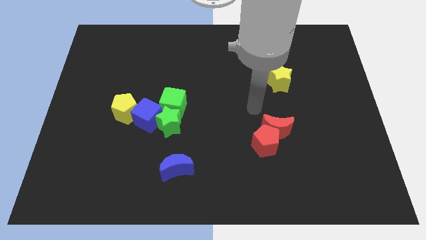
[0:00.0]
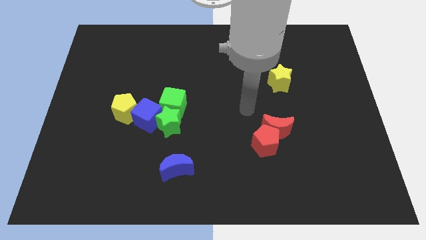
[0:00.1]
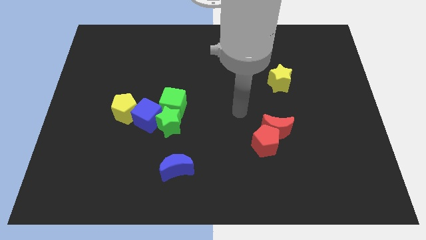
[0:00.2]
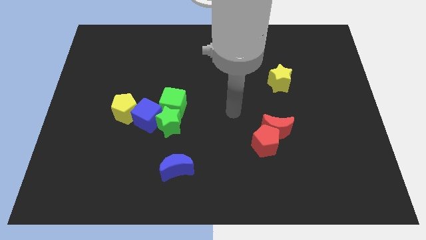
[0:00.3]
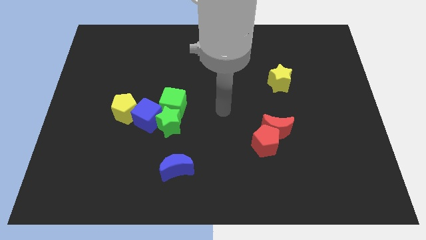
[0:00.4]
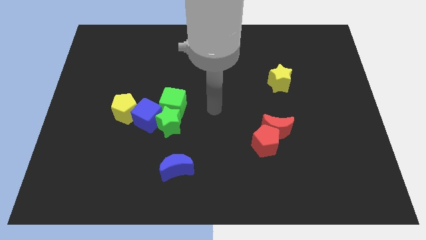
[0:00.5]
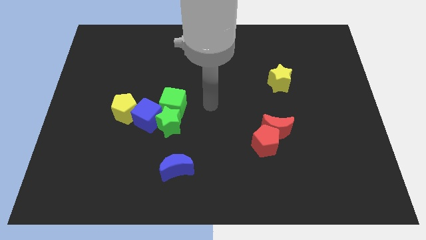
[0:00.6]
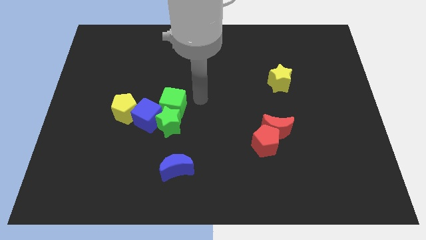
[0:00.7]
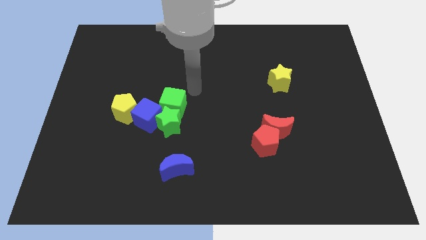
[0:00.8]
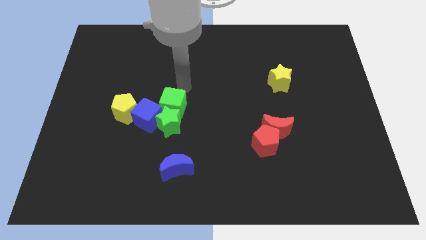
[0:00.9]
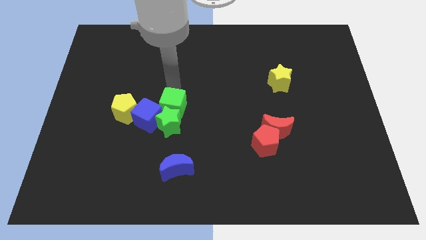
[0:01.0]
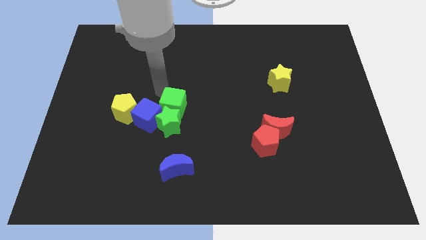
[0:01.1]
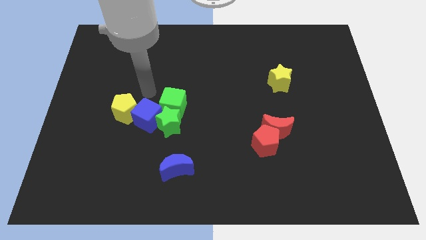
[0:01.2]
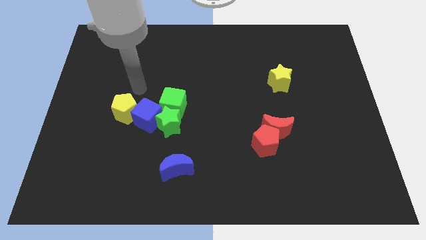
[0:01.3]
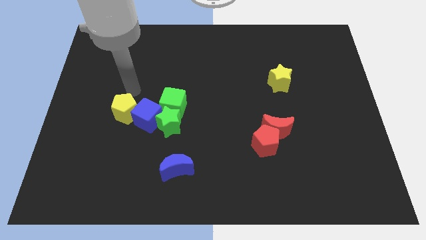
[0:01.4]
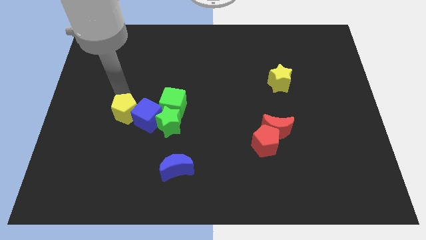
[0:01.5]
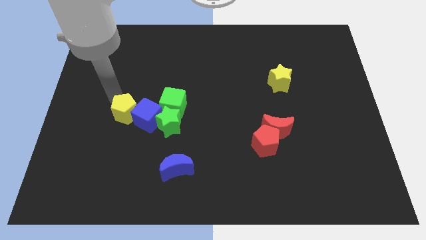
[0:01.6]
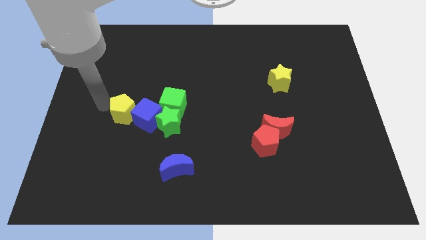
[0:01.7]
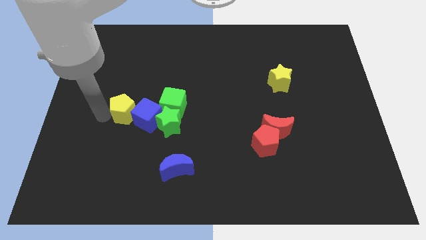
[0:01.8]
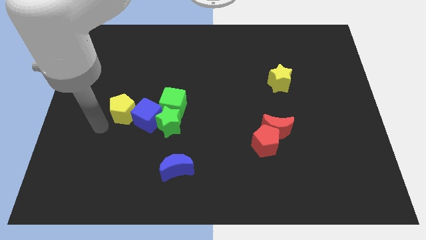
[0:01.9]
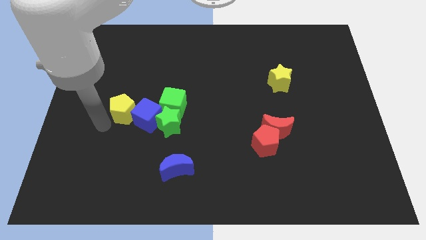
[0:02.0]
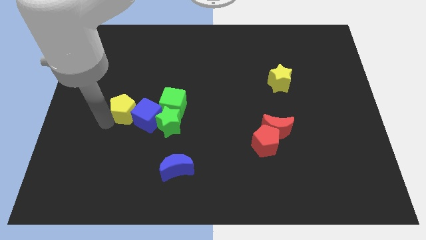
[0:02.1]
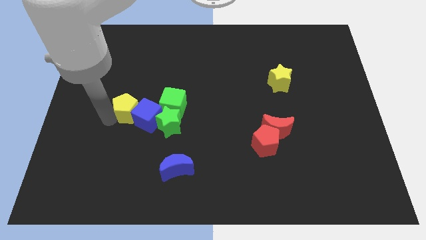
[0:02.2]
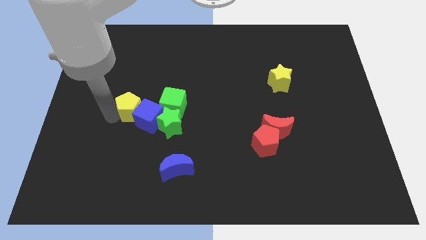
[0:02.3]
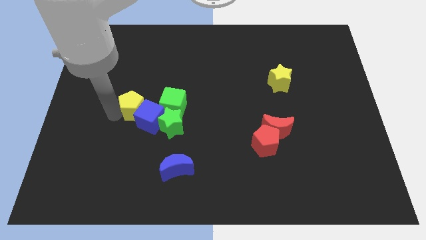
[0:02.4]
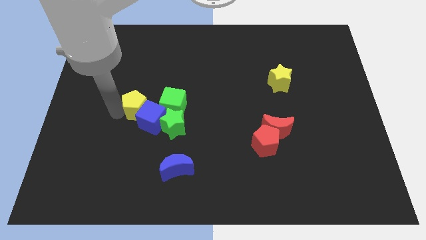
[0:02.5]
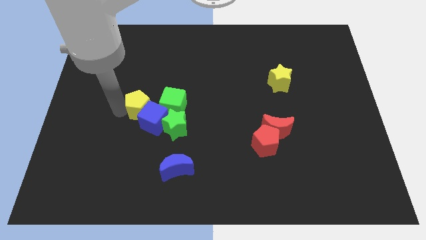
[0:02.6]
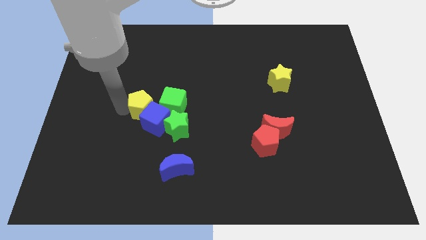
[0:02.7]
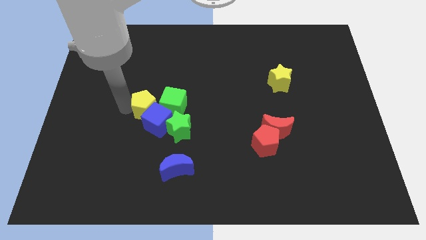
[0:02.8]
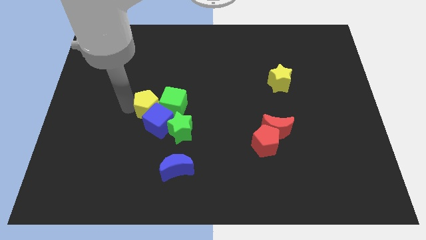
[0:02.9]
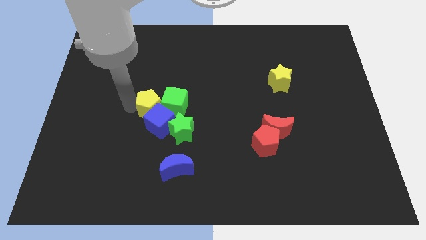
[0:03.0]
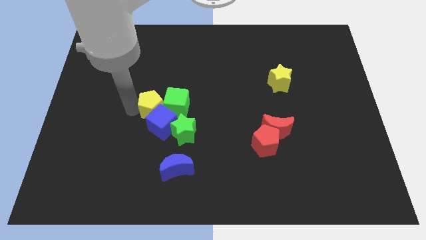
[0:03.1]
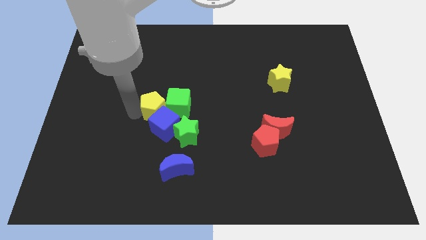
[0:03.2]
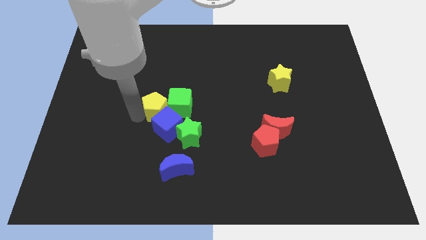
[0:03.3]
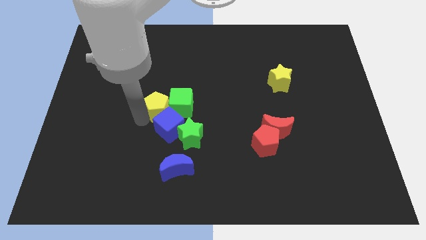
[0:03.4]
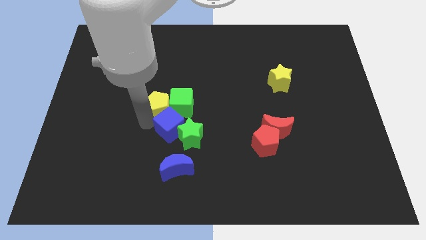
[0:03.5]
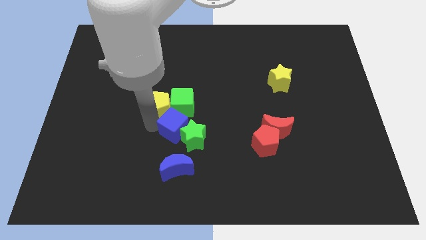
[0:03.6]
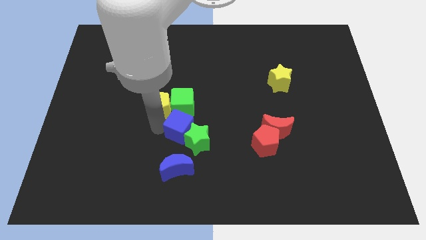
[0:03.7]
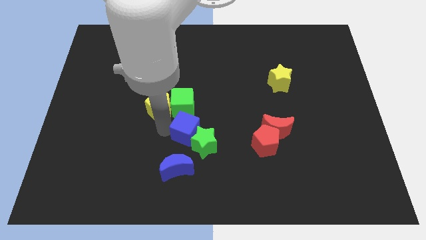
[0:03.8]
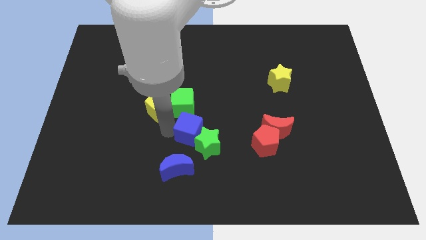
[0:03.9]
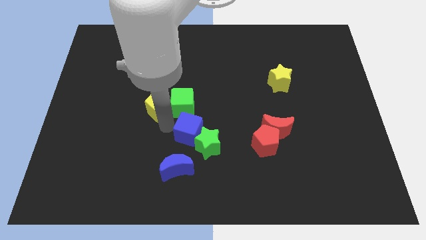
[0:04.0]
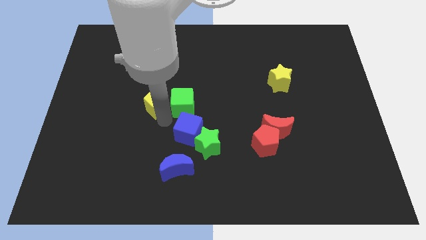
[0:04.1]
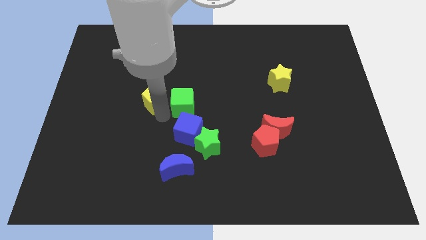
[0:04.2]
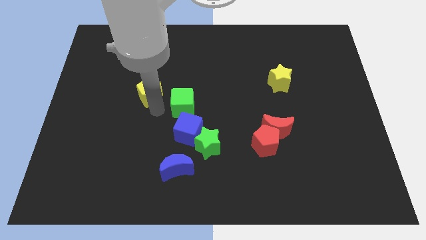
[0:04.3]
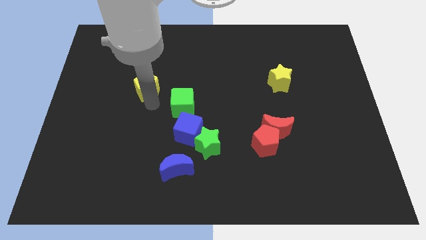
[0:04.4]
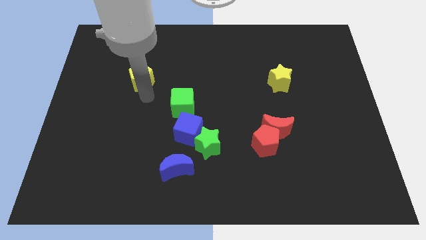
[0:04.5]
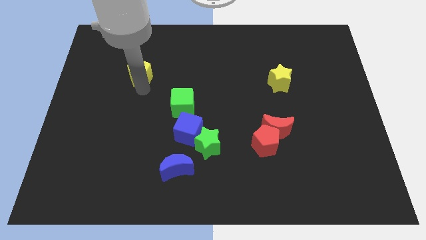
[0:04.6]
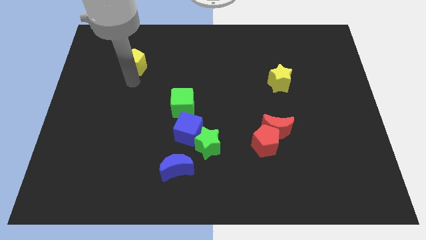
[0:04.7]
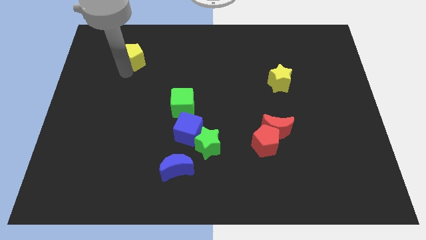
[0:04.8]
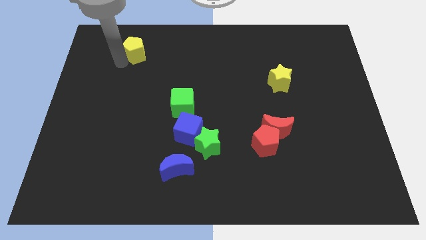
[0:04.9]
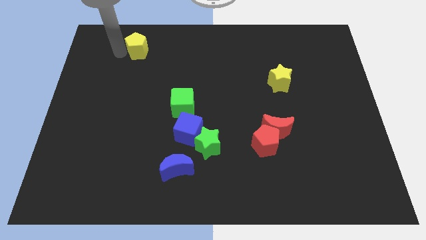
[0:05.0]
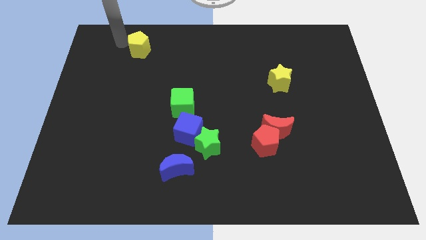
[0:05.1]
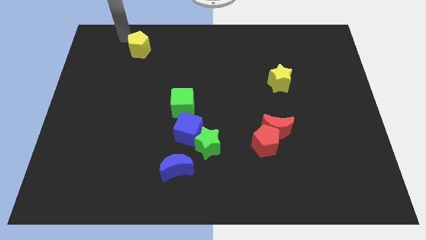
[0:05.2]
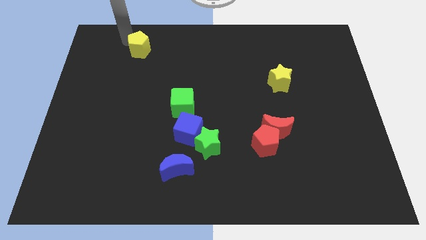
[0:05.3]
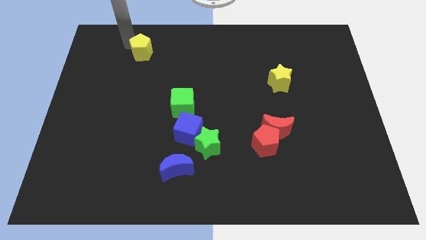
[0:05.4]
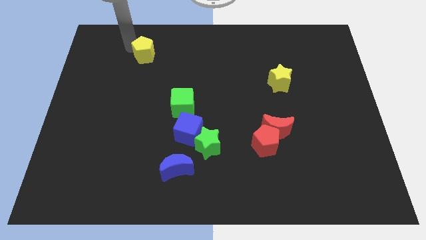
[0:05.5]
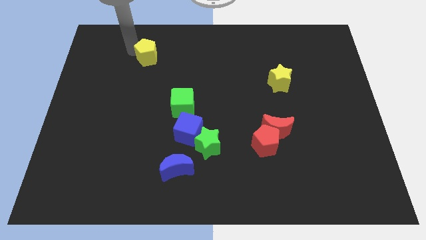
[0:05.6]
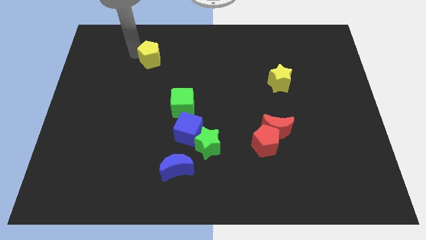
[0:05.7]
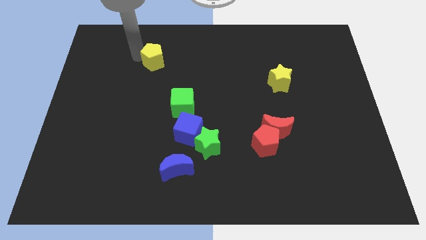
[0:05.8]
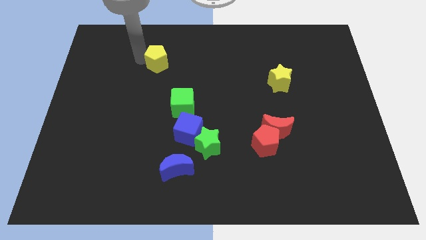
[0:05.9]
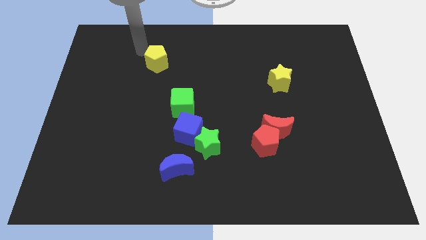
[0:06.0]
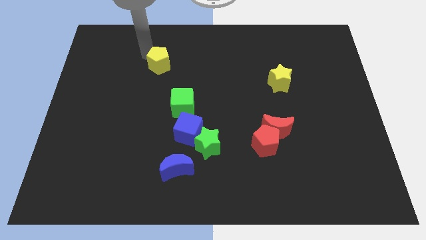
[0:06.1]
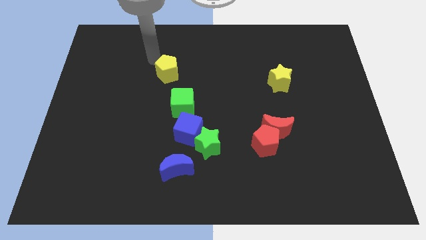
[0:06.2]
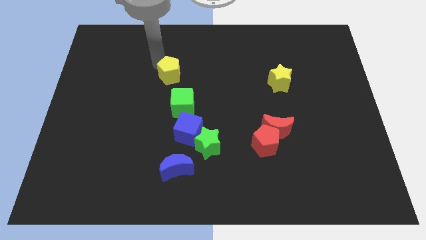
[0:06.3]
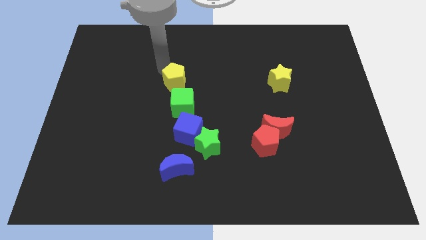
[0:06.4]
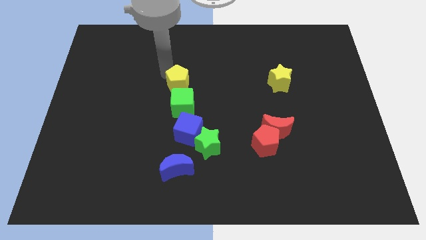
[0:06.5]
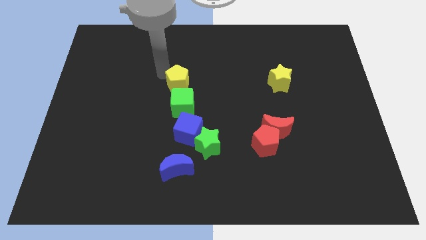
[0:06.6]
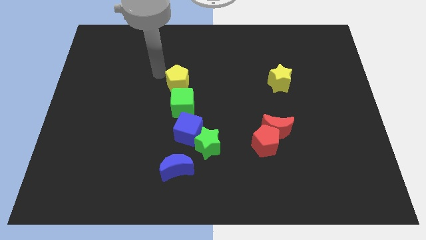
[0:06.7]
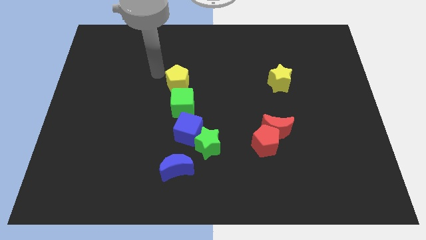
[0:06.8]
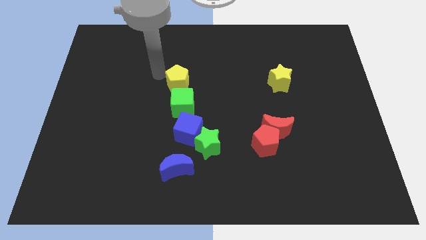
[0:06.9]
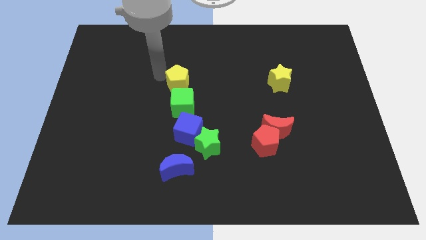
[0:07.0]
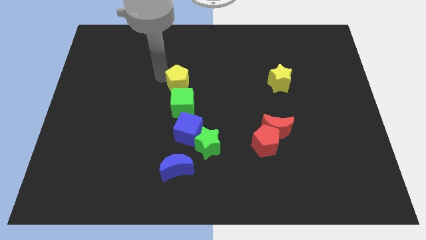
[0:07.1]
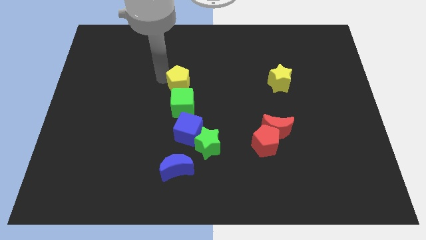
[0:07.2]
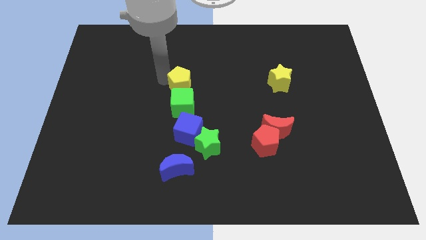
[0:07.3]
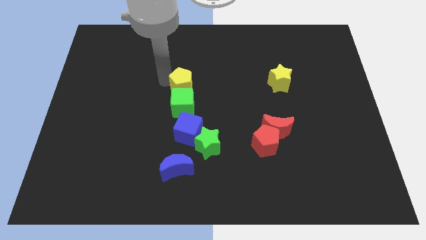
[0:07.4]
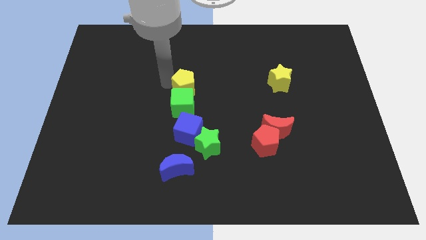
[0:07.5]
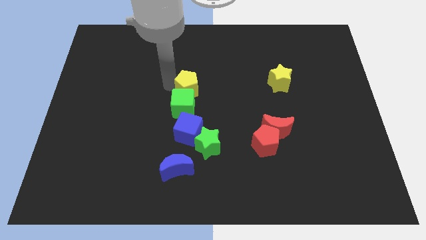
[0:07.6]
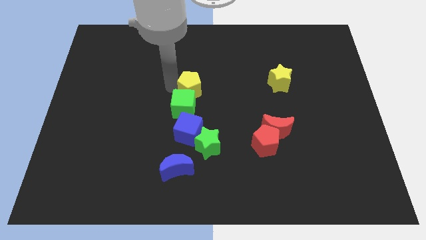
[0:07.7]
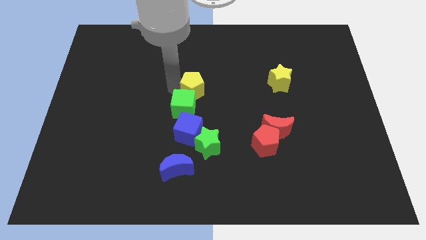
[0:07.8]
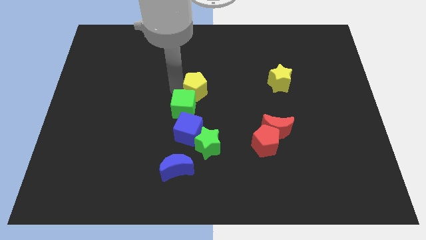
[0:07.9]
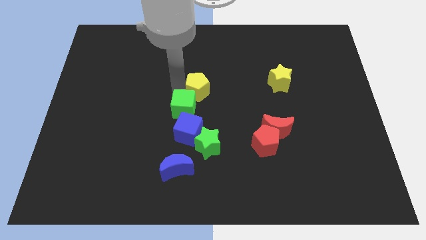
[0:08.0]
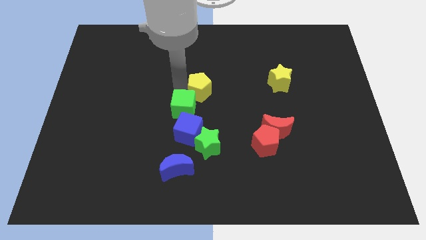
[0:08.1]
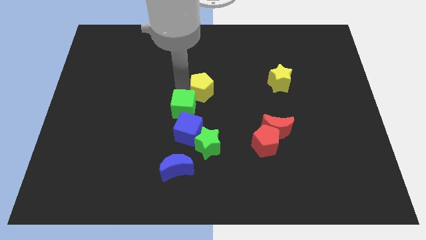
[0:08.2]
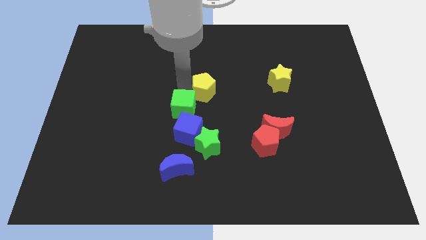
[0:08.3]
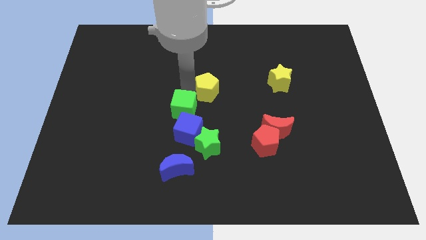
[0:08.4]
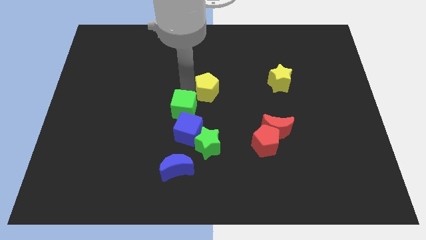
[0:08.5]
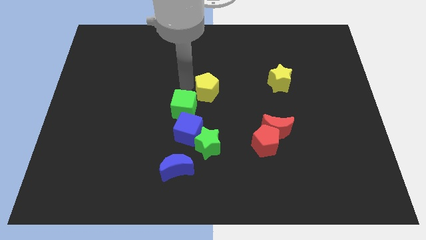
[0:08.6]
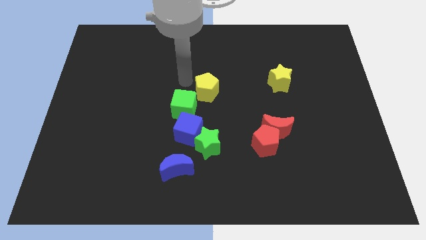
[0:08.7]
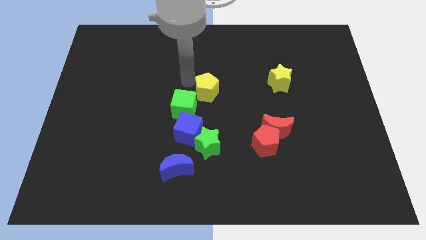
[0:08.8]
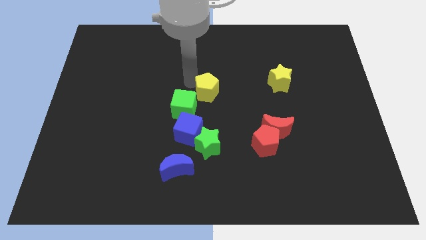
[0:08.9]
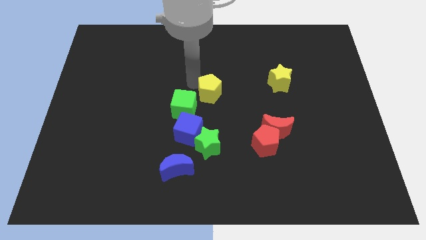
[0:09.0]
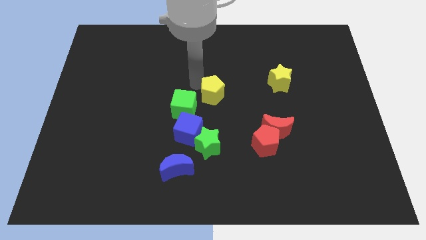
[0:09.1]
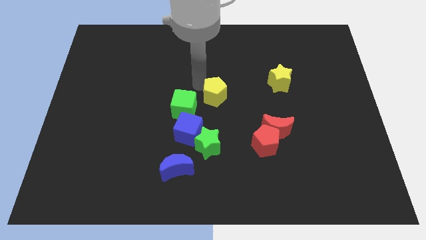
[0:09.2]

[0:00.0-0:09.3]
push the yellow pentagon to the right
